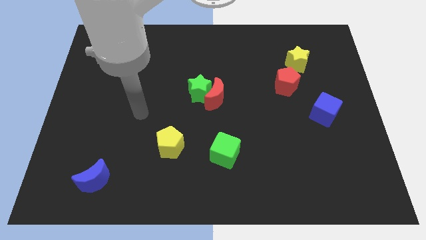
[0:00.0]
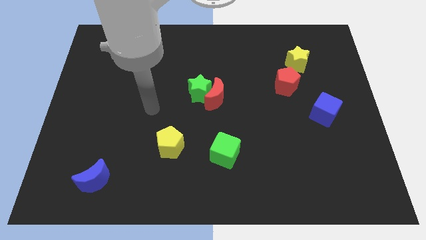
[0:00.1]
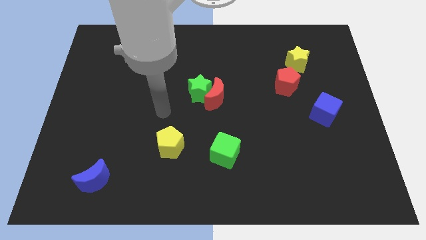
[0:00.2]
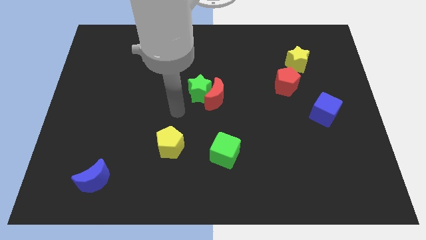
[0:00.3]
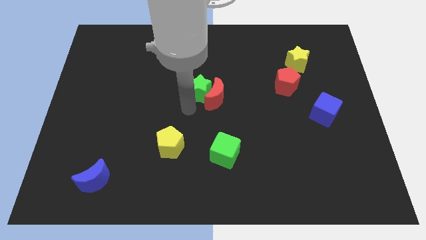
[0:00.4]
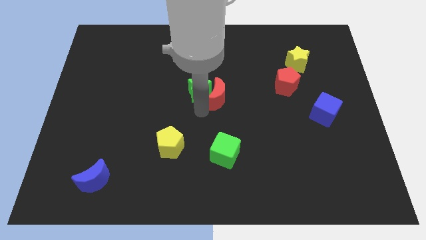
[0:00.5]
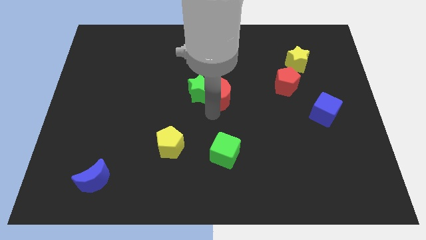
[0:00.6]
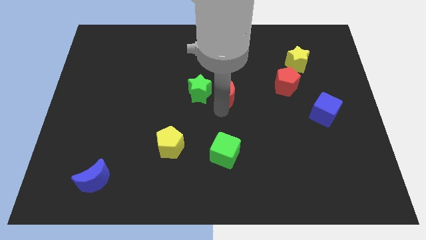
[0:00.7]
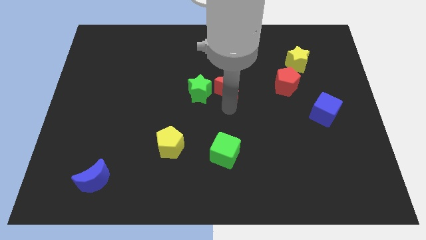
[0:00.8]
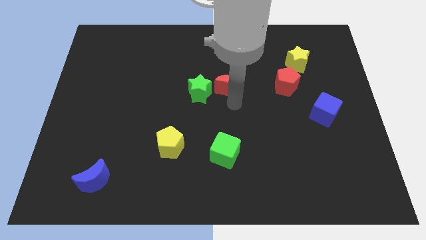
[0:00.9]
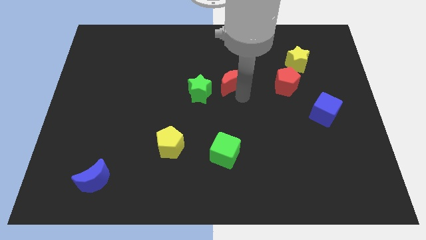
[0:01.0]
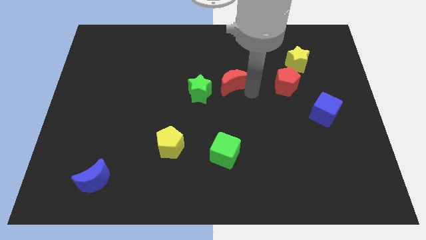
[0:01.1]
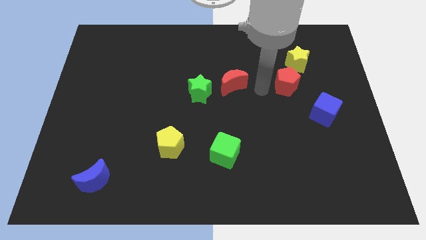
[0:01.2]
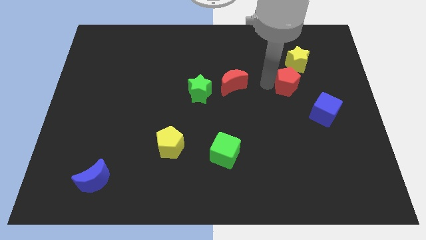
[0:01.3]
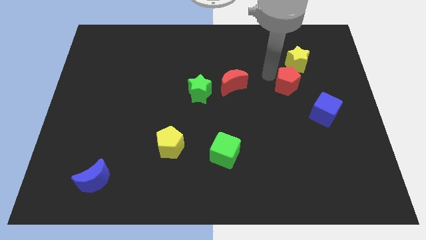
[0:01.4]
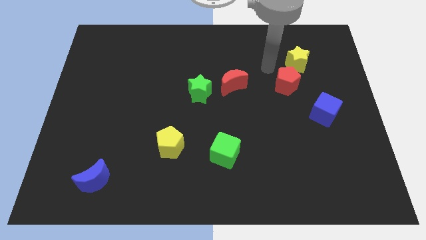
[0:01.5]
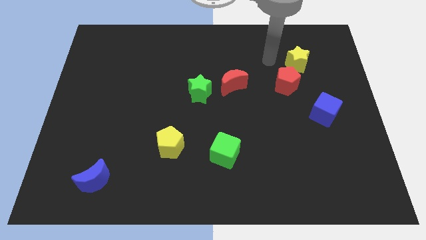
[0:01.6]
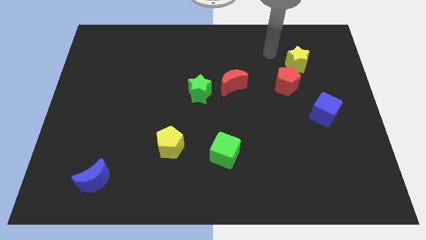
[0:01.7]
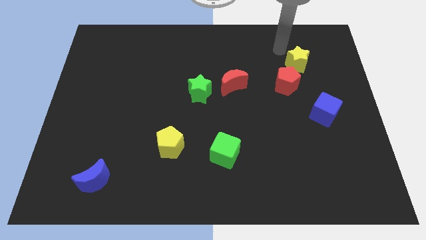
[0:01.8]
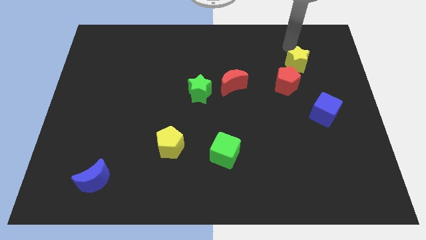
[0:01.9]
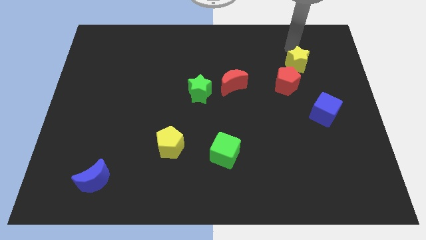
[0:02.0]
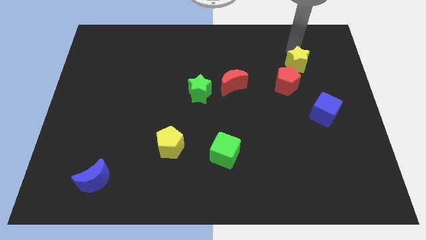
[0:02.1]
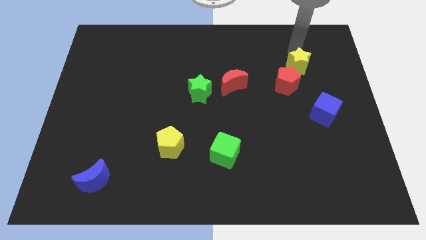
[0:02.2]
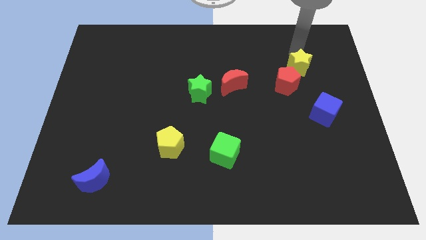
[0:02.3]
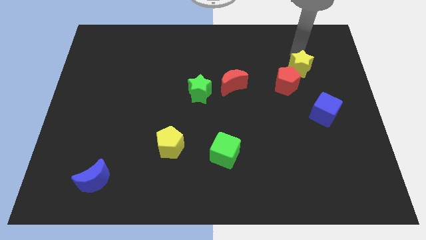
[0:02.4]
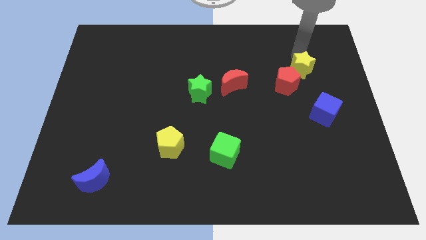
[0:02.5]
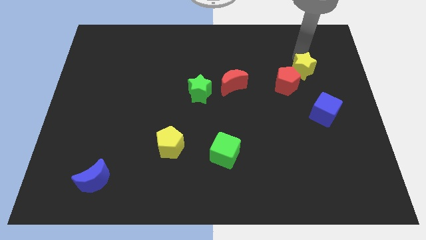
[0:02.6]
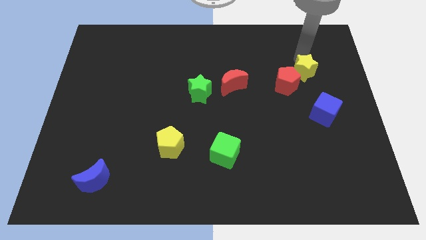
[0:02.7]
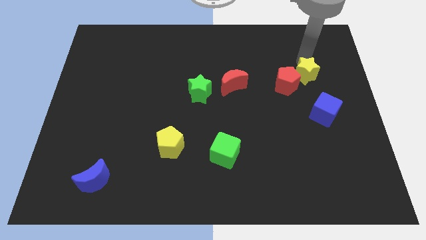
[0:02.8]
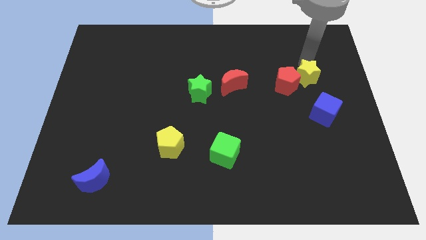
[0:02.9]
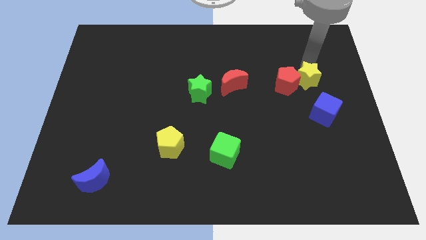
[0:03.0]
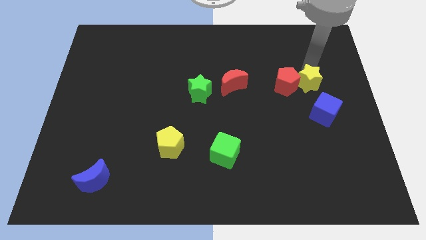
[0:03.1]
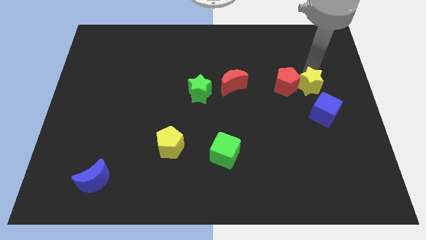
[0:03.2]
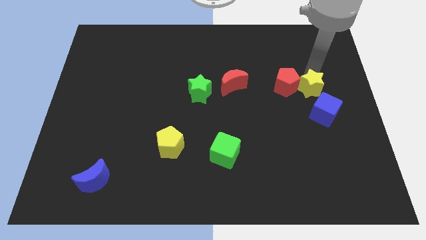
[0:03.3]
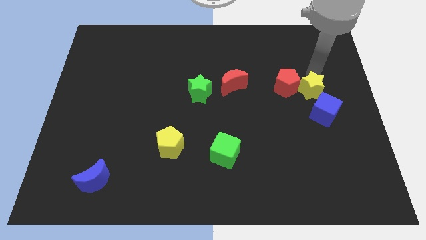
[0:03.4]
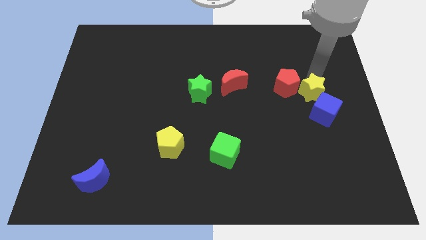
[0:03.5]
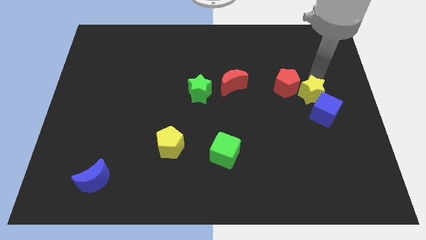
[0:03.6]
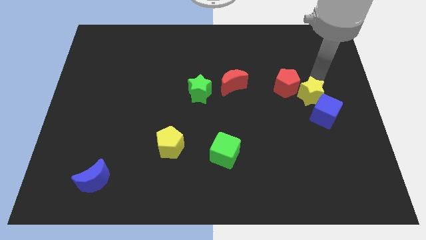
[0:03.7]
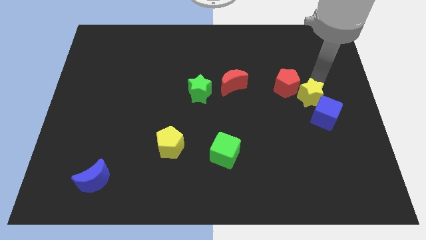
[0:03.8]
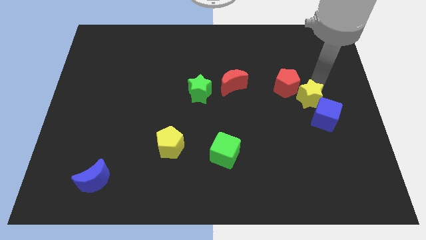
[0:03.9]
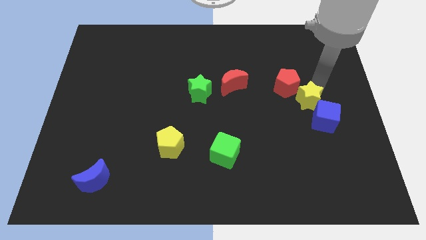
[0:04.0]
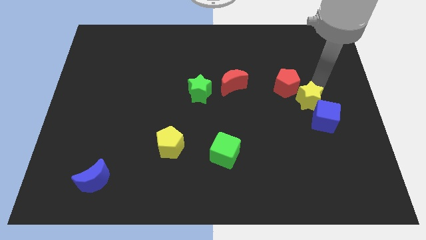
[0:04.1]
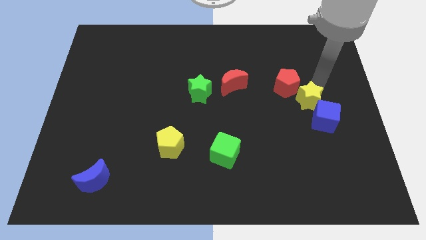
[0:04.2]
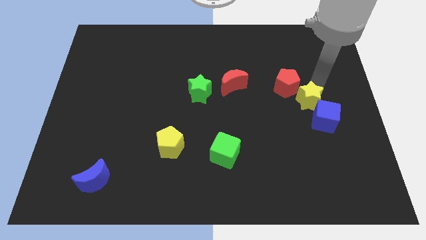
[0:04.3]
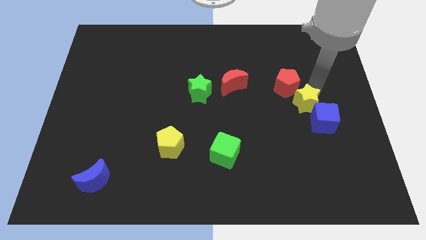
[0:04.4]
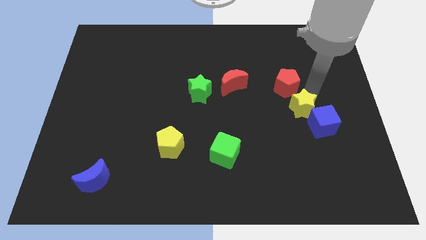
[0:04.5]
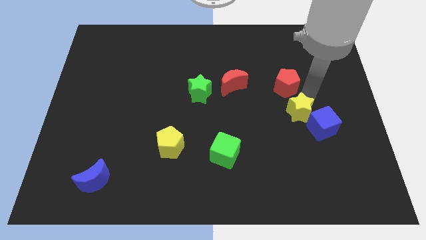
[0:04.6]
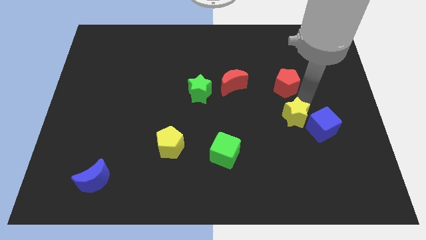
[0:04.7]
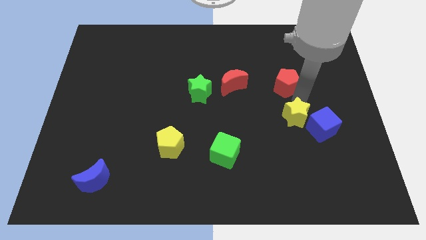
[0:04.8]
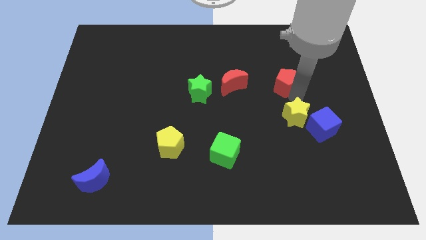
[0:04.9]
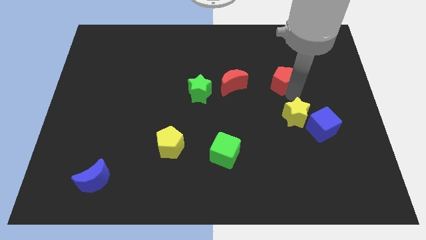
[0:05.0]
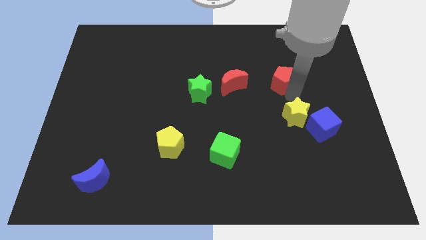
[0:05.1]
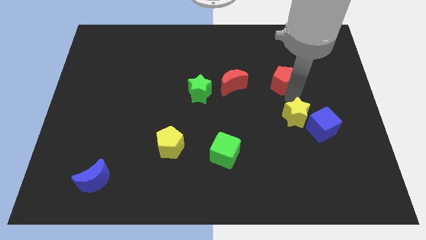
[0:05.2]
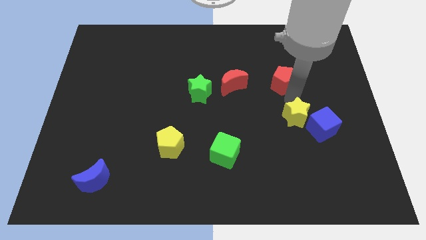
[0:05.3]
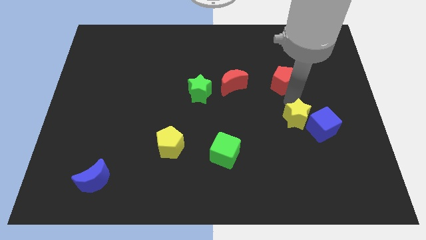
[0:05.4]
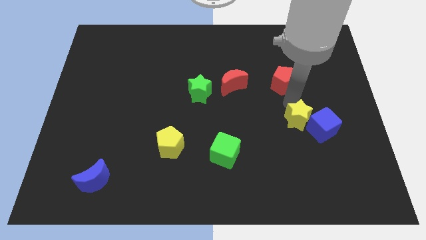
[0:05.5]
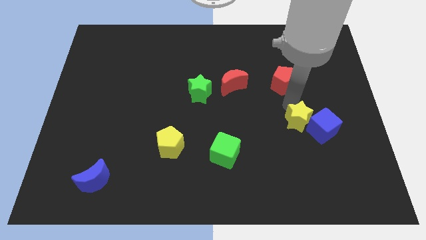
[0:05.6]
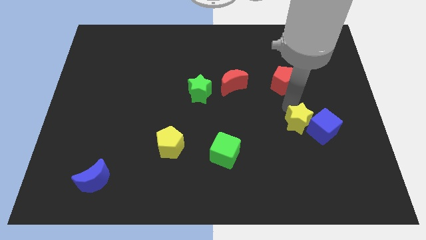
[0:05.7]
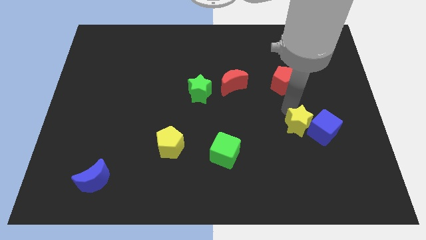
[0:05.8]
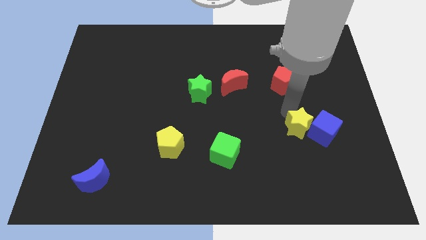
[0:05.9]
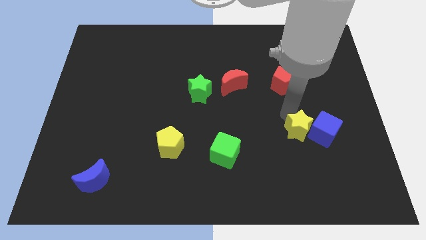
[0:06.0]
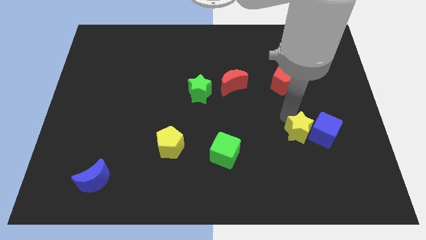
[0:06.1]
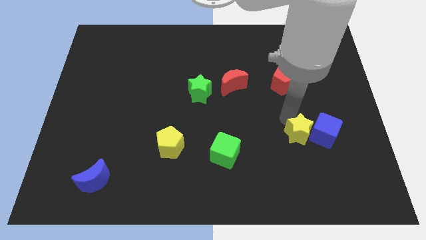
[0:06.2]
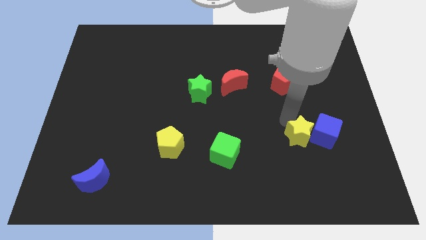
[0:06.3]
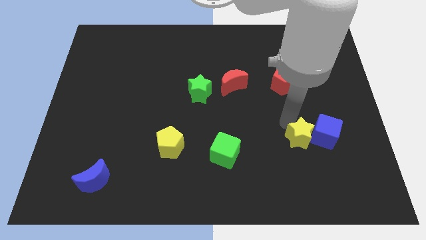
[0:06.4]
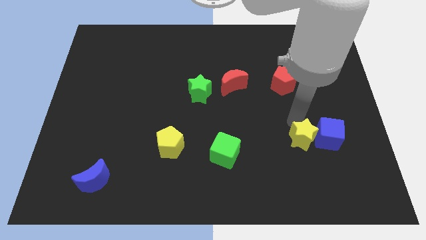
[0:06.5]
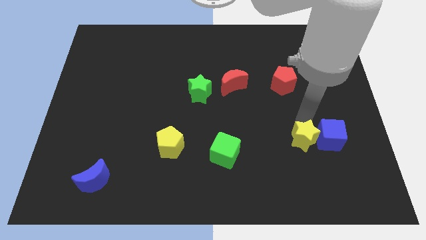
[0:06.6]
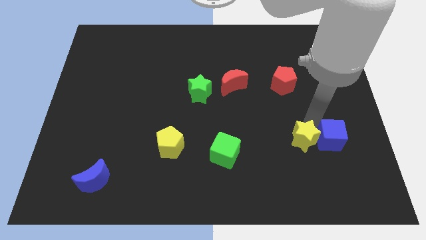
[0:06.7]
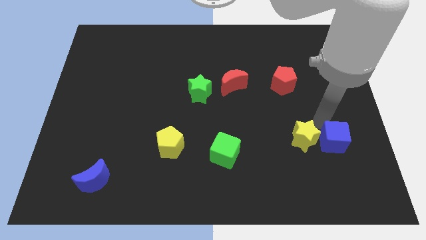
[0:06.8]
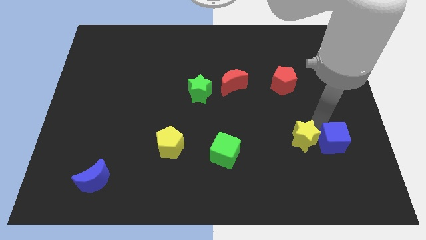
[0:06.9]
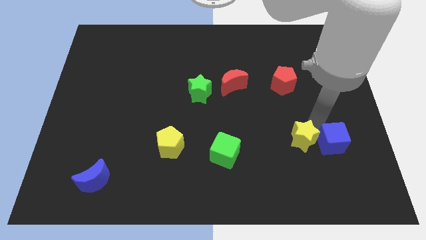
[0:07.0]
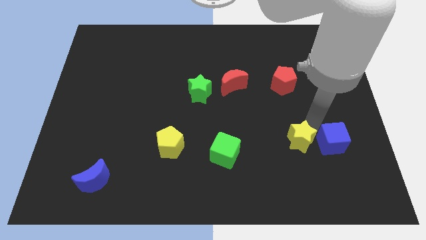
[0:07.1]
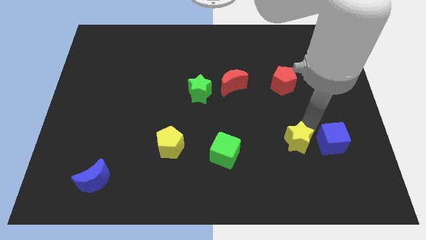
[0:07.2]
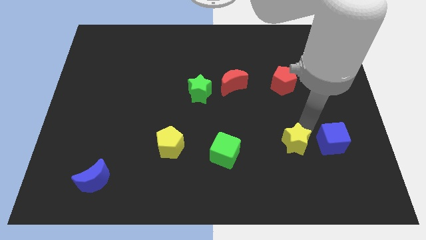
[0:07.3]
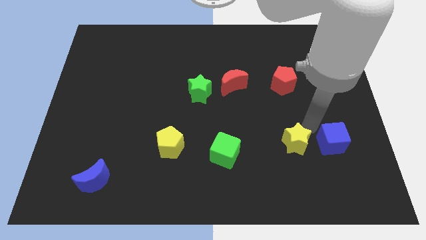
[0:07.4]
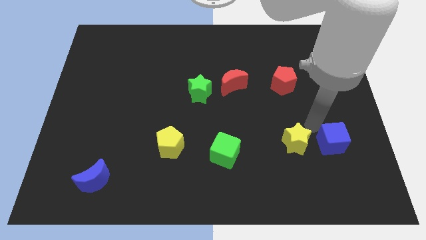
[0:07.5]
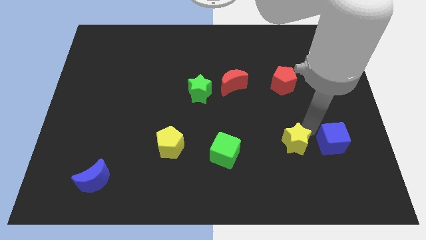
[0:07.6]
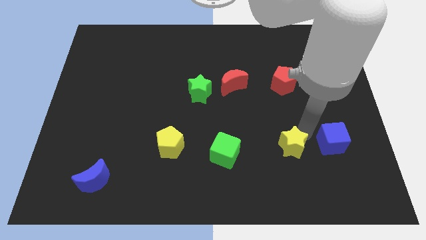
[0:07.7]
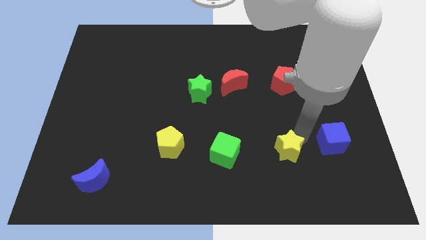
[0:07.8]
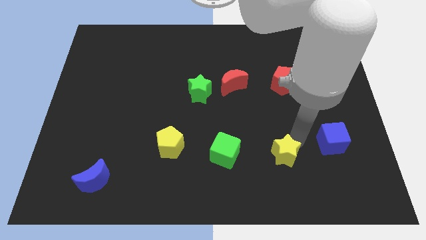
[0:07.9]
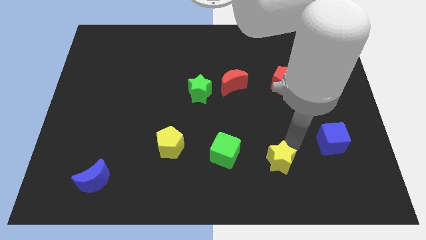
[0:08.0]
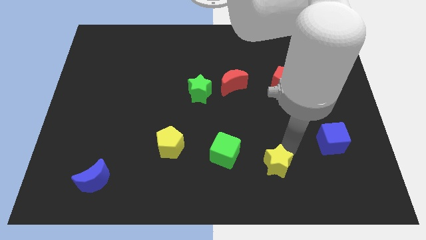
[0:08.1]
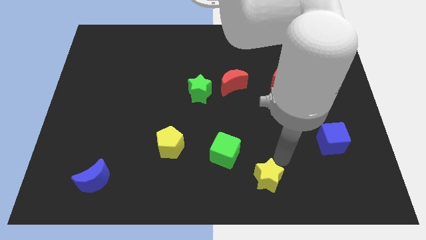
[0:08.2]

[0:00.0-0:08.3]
push the yellow star to the bottom side
